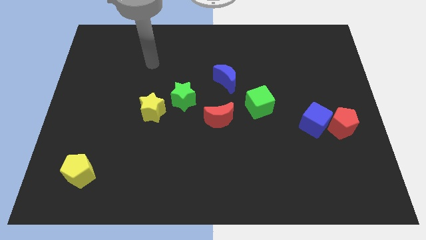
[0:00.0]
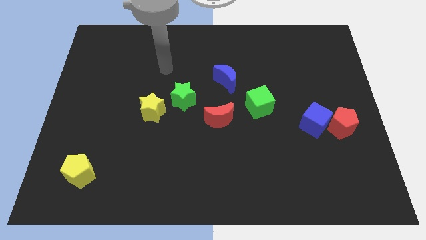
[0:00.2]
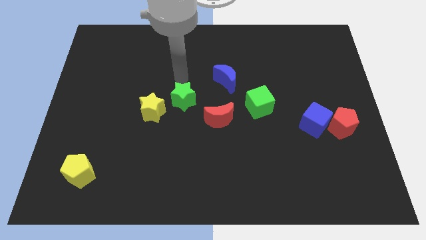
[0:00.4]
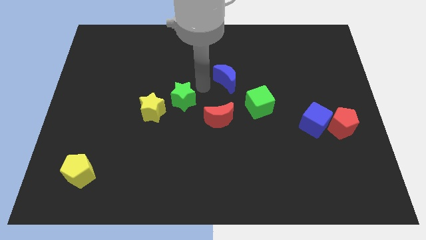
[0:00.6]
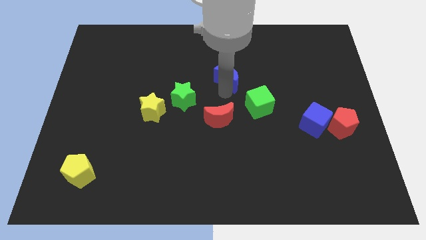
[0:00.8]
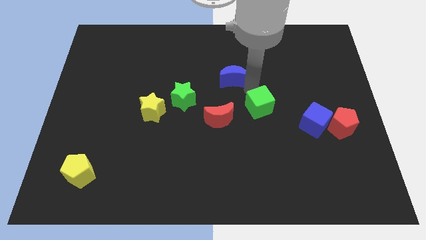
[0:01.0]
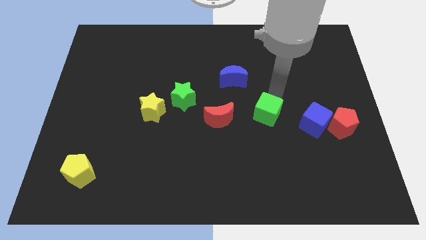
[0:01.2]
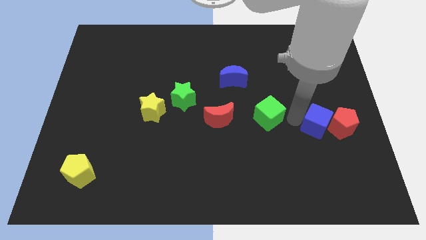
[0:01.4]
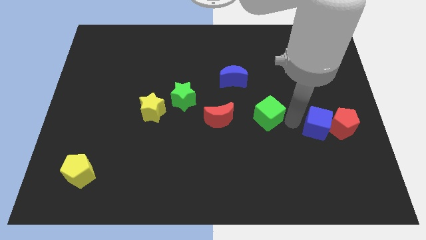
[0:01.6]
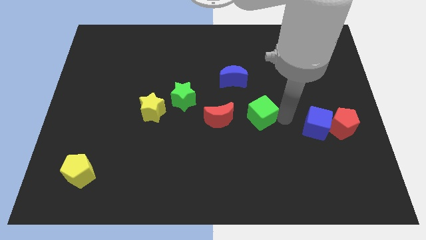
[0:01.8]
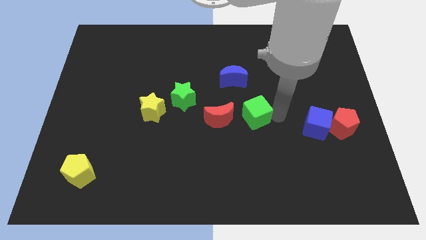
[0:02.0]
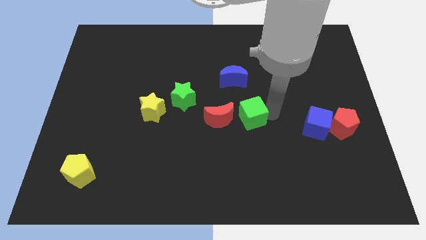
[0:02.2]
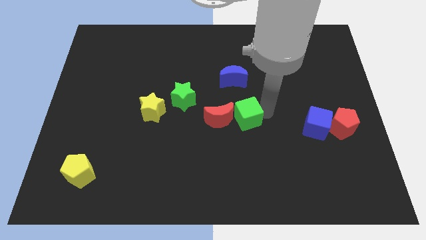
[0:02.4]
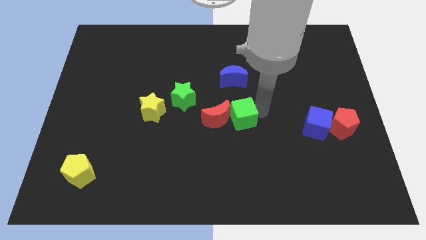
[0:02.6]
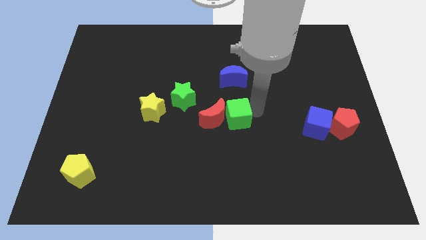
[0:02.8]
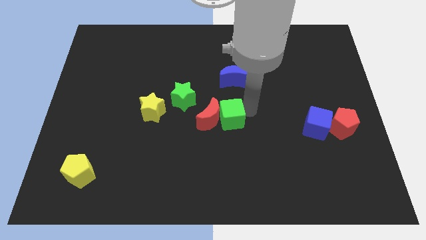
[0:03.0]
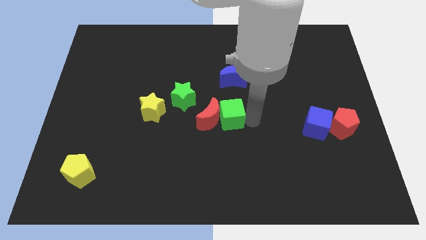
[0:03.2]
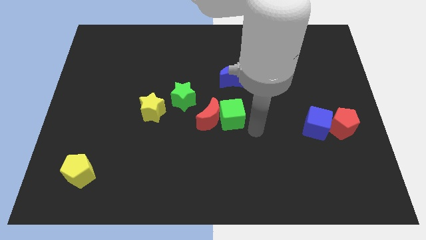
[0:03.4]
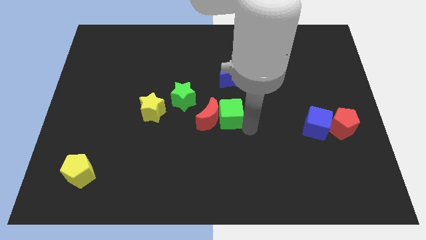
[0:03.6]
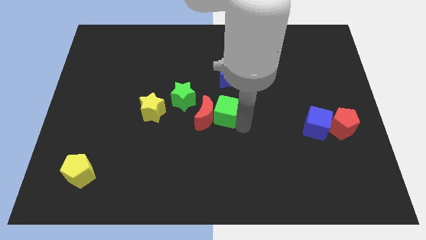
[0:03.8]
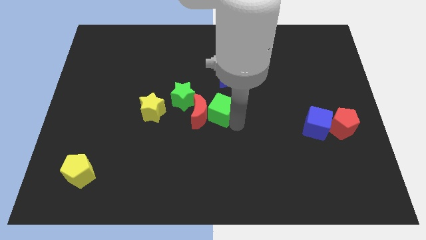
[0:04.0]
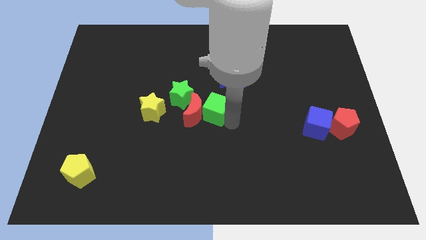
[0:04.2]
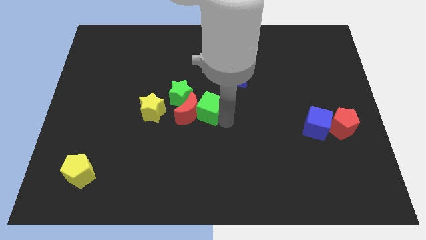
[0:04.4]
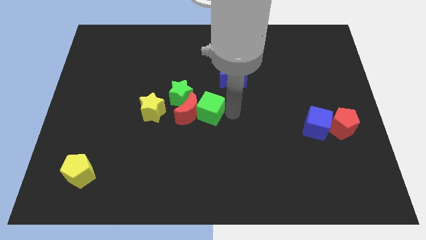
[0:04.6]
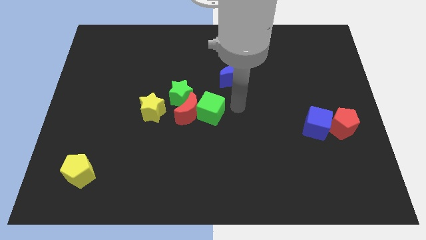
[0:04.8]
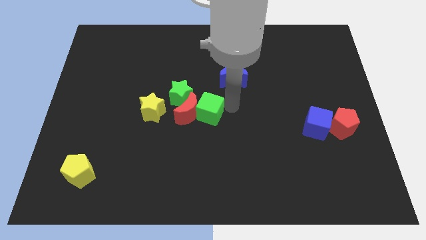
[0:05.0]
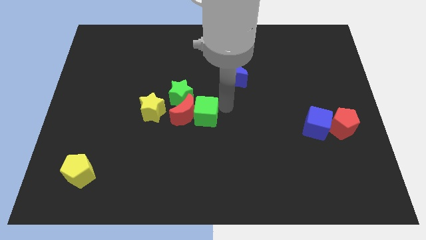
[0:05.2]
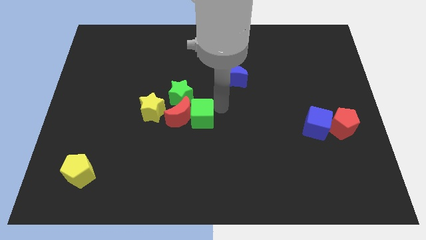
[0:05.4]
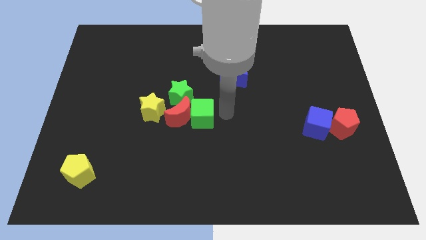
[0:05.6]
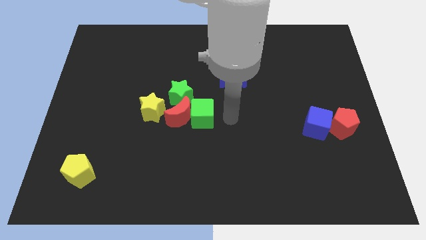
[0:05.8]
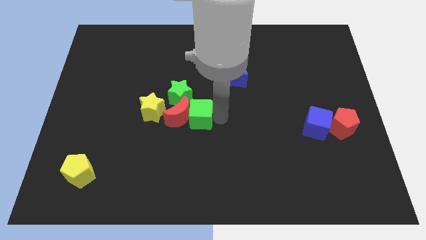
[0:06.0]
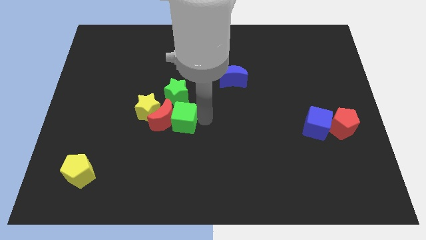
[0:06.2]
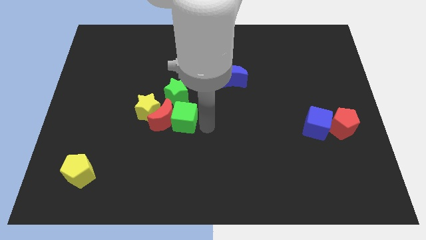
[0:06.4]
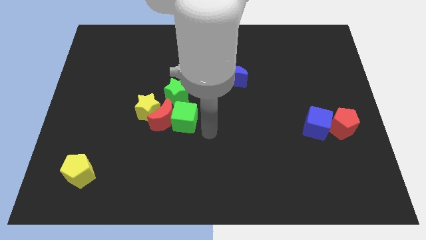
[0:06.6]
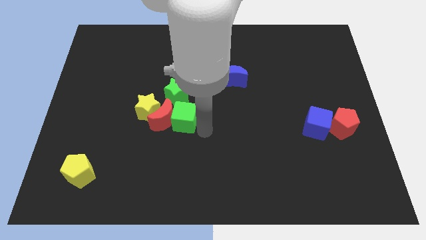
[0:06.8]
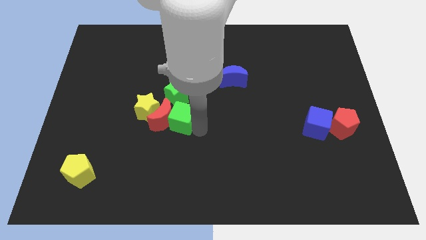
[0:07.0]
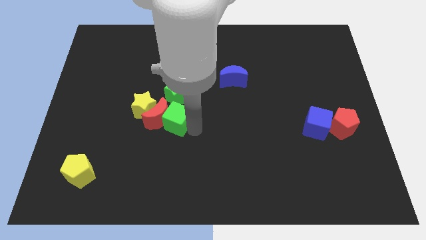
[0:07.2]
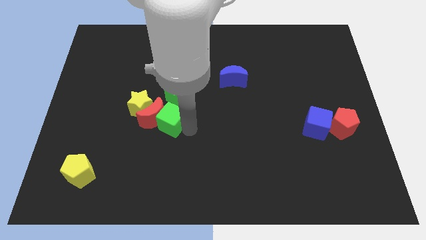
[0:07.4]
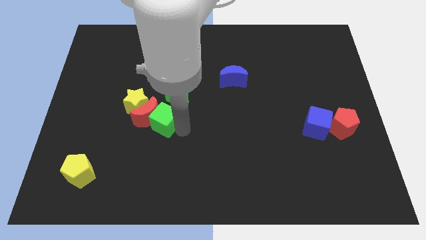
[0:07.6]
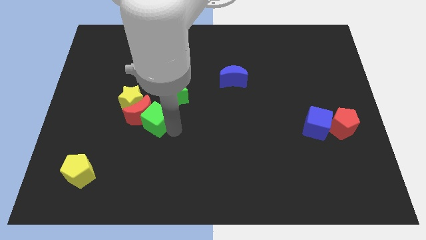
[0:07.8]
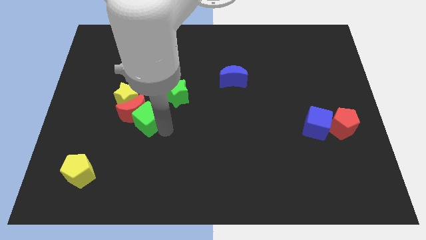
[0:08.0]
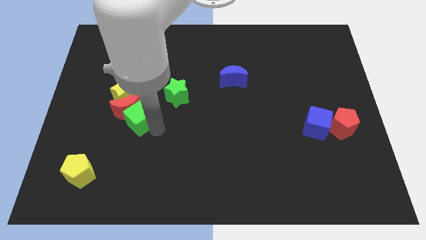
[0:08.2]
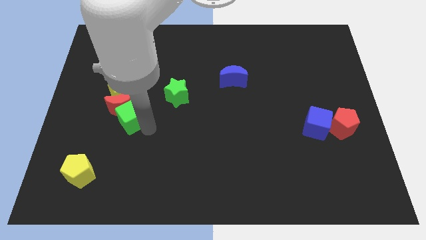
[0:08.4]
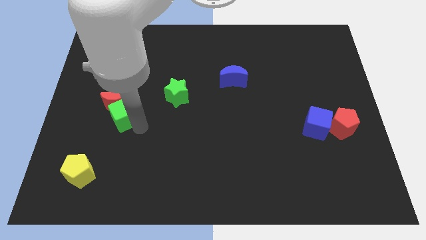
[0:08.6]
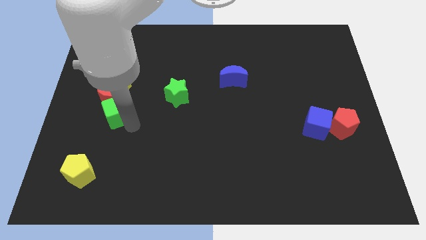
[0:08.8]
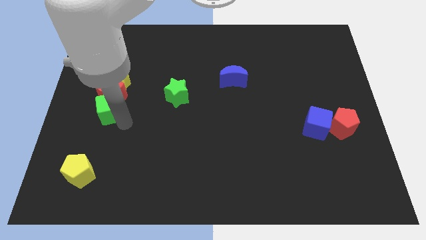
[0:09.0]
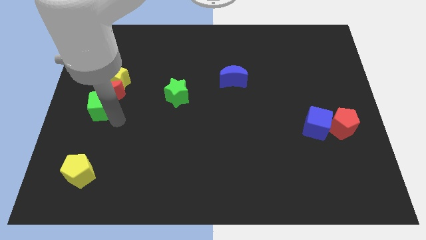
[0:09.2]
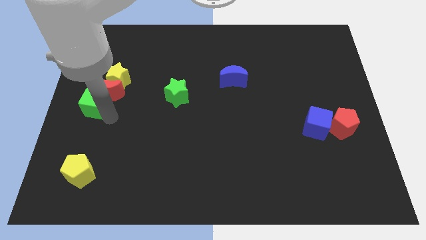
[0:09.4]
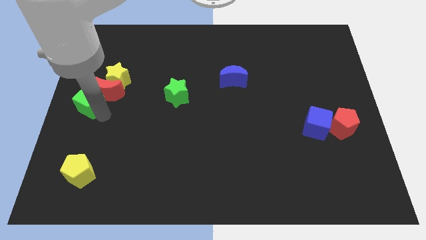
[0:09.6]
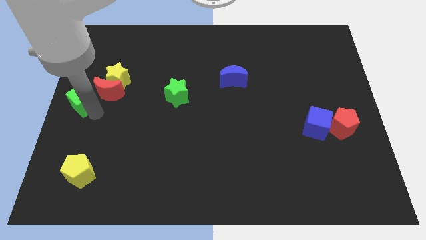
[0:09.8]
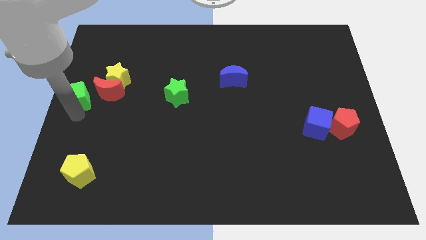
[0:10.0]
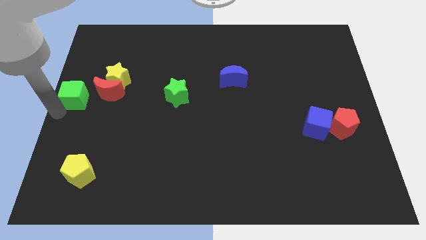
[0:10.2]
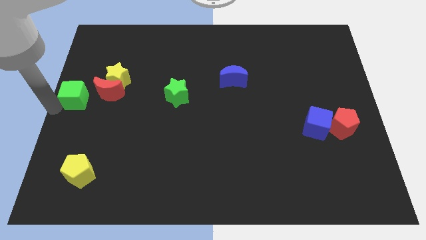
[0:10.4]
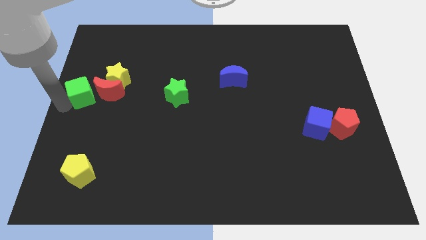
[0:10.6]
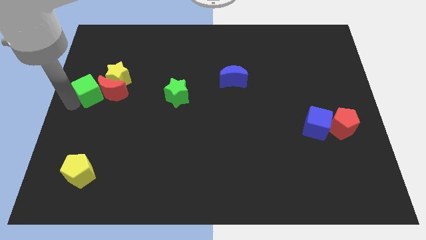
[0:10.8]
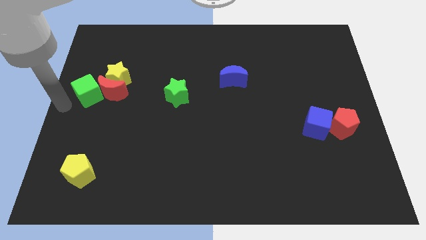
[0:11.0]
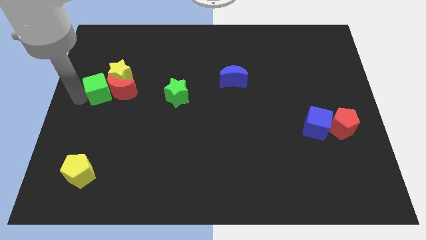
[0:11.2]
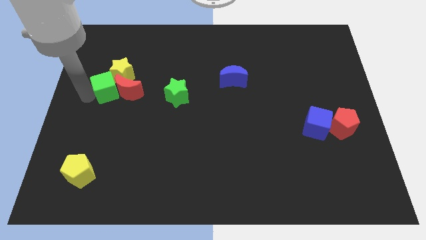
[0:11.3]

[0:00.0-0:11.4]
push the green cube next to the yellow star

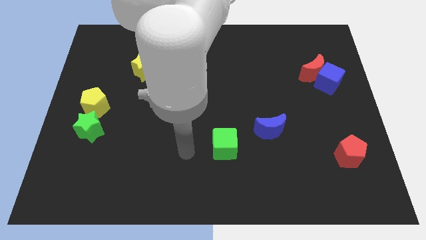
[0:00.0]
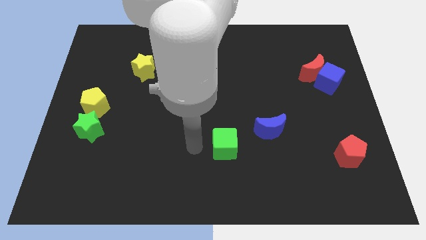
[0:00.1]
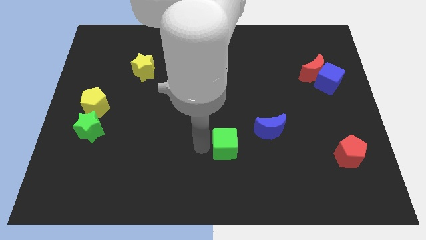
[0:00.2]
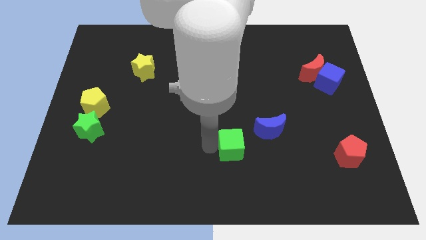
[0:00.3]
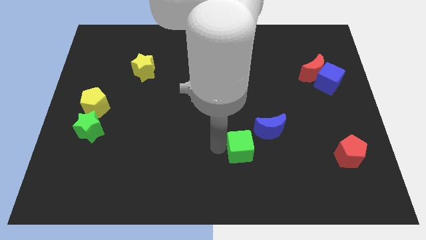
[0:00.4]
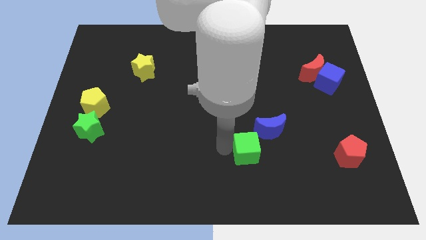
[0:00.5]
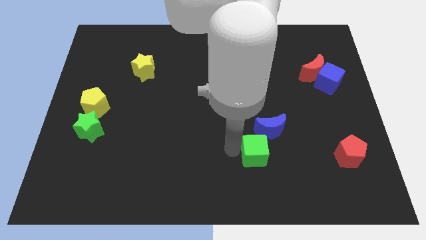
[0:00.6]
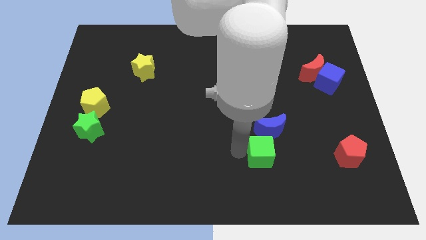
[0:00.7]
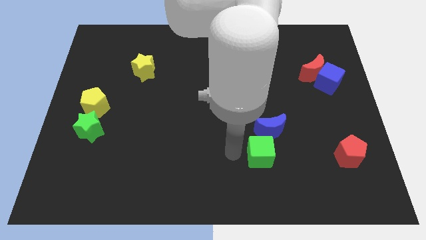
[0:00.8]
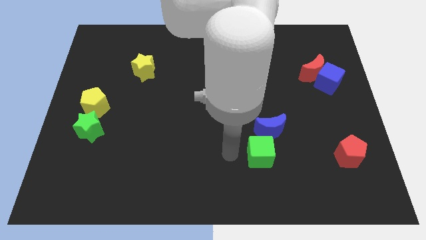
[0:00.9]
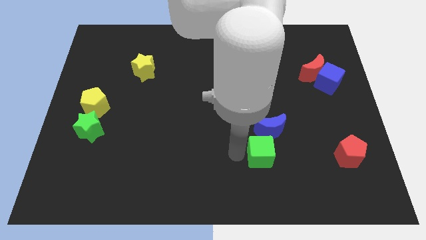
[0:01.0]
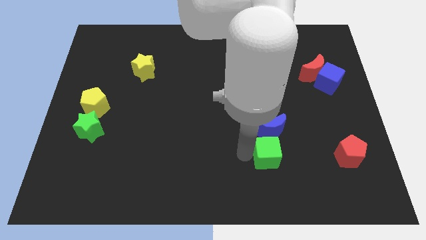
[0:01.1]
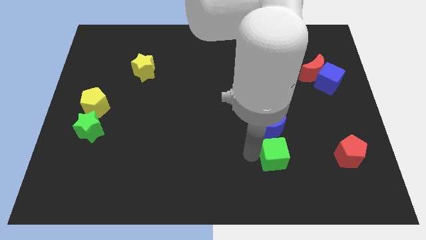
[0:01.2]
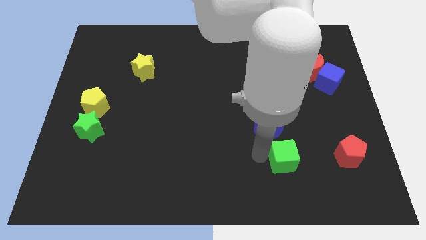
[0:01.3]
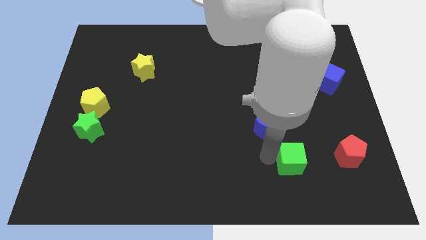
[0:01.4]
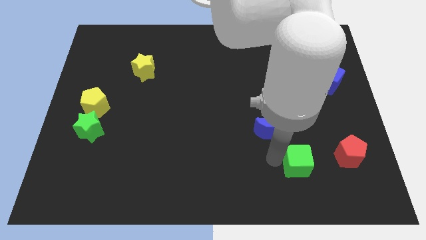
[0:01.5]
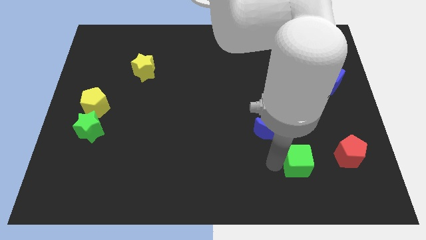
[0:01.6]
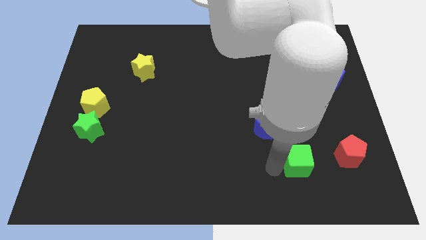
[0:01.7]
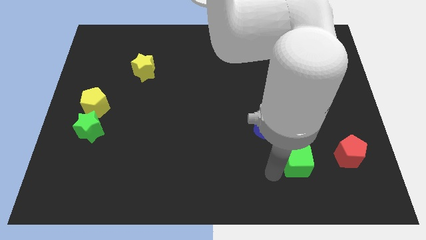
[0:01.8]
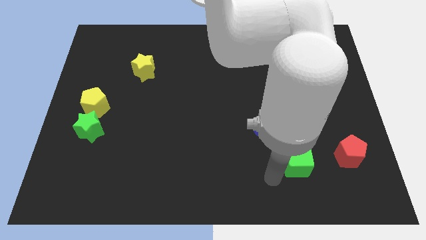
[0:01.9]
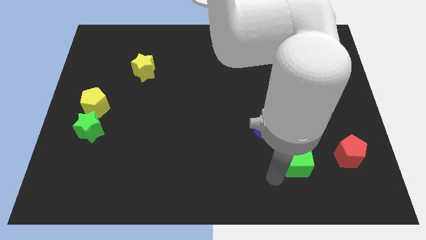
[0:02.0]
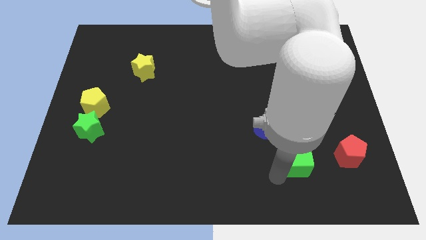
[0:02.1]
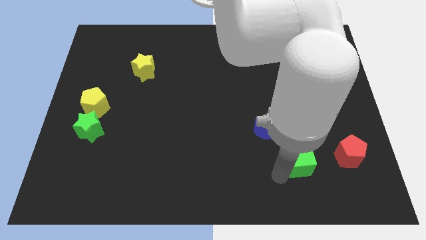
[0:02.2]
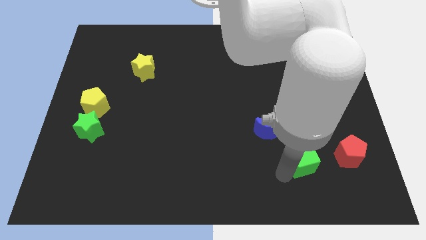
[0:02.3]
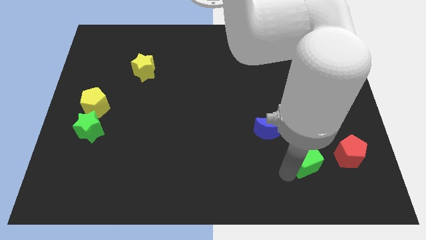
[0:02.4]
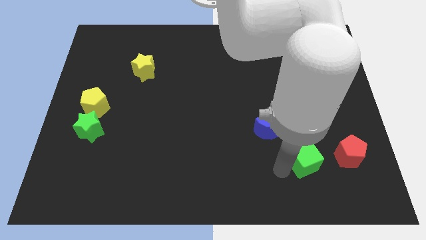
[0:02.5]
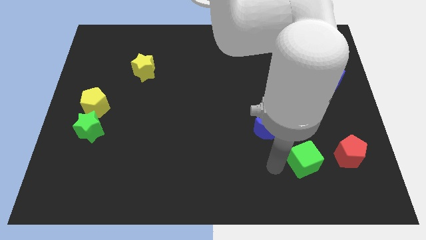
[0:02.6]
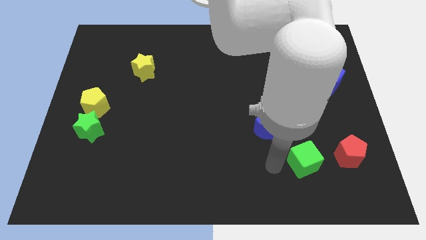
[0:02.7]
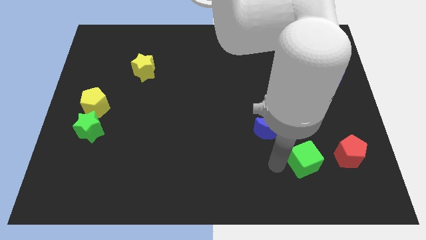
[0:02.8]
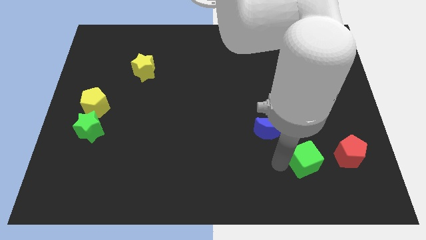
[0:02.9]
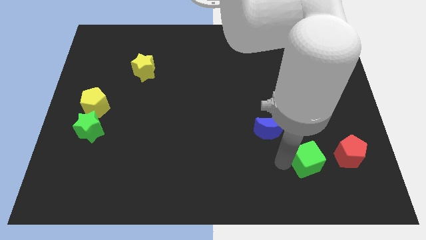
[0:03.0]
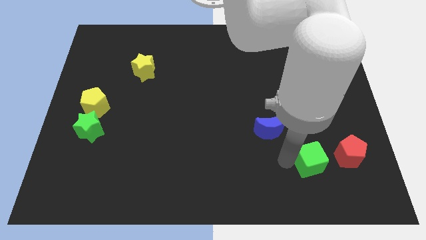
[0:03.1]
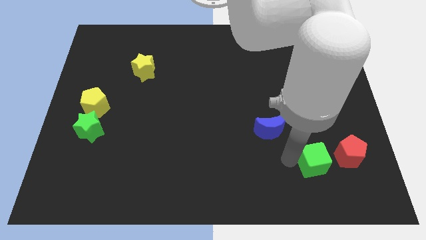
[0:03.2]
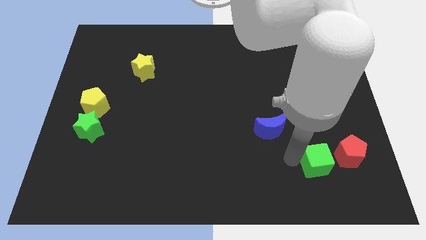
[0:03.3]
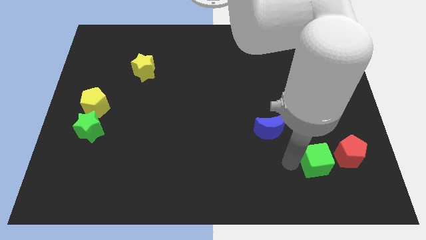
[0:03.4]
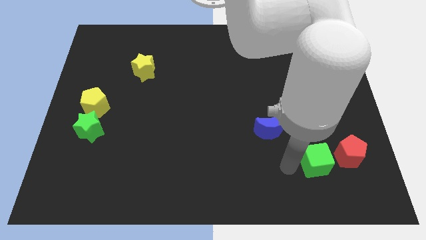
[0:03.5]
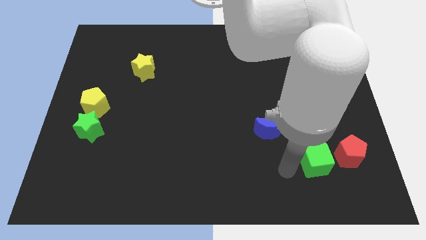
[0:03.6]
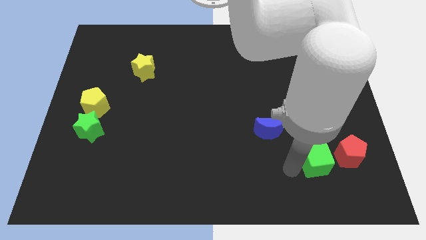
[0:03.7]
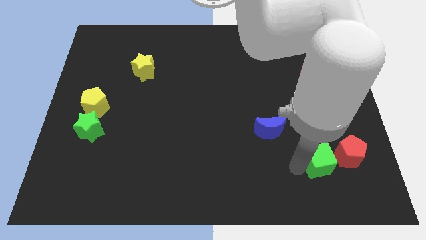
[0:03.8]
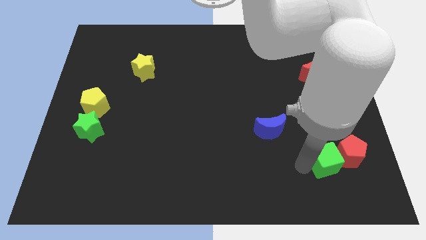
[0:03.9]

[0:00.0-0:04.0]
move the green cube next to the red pentagon
